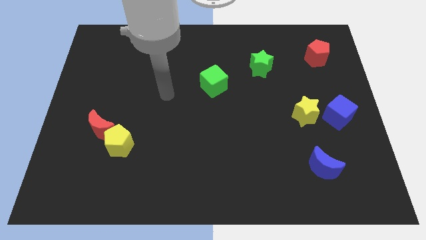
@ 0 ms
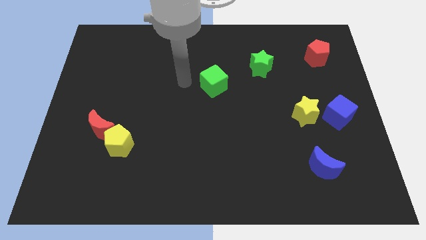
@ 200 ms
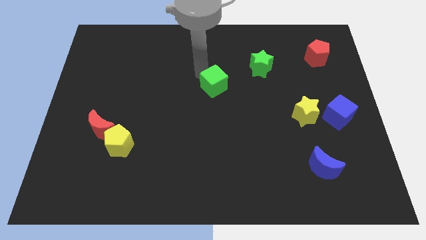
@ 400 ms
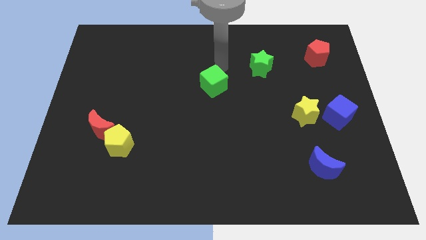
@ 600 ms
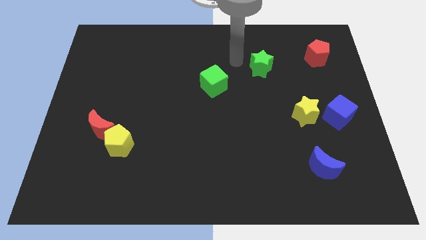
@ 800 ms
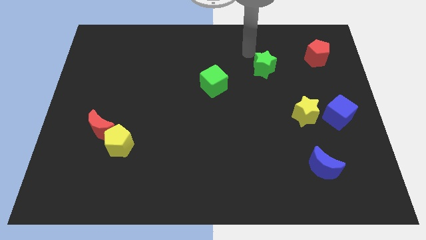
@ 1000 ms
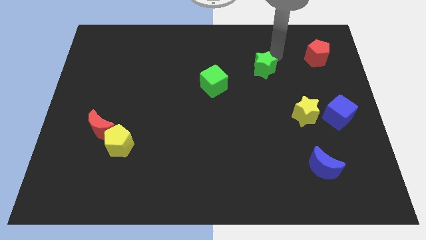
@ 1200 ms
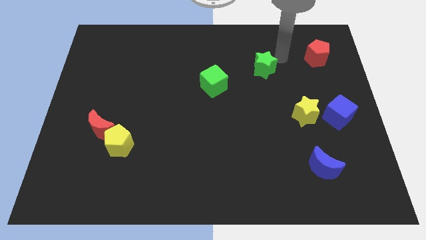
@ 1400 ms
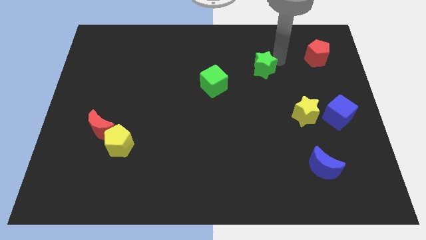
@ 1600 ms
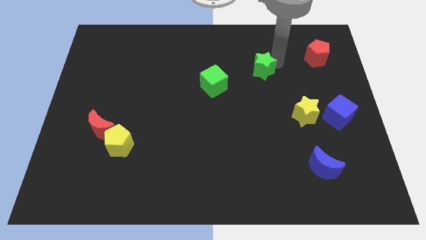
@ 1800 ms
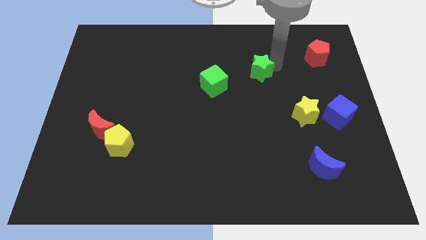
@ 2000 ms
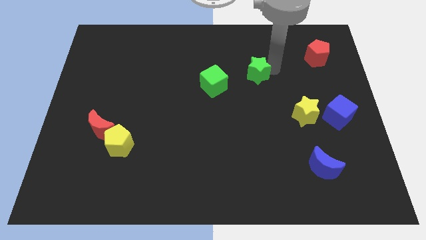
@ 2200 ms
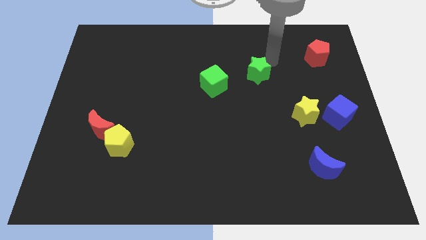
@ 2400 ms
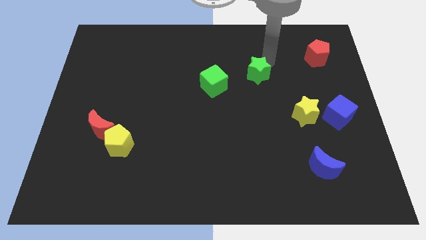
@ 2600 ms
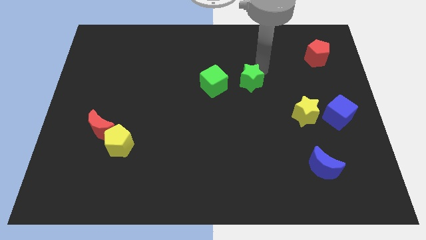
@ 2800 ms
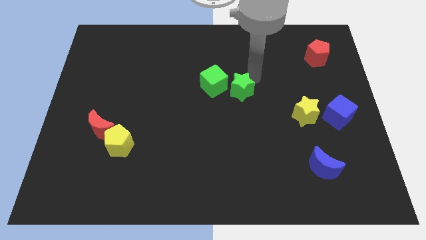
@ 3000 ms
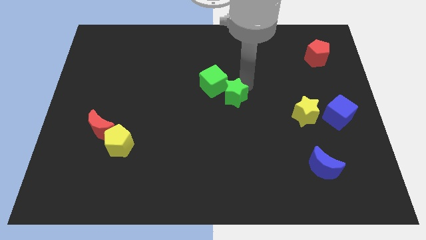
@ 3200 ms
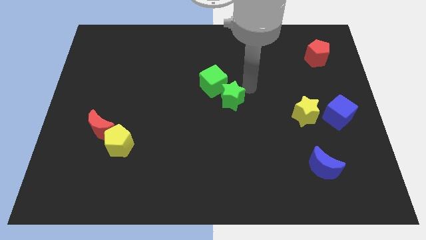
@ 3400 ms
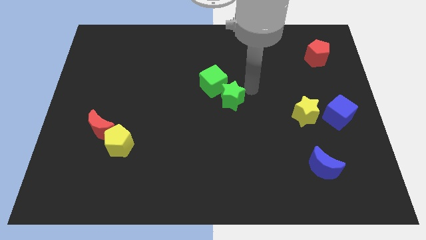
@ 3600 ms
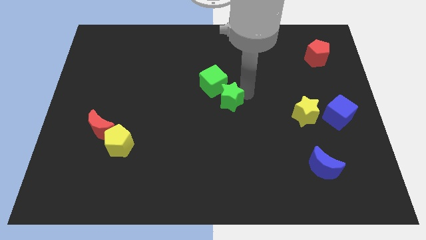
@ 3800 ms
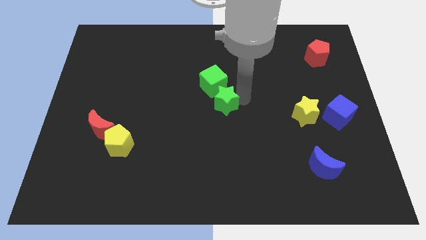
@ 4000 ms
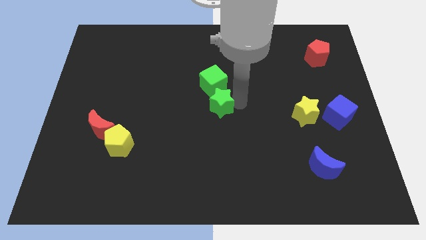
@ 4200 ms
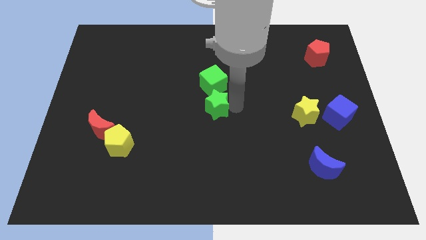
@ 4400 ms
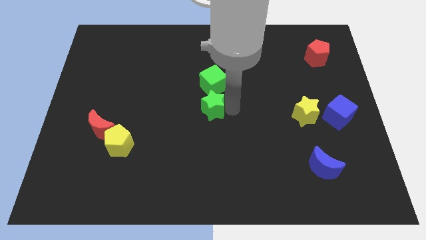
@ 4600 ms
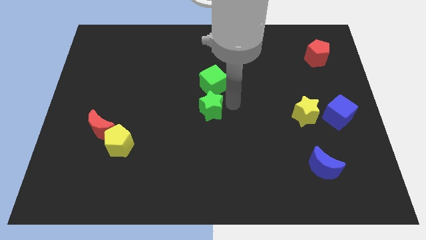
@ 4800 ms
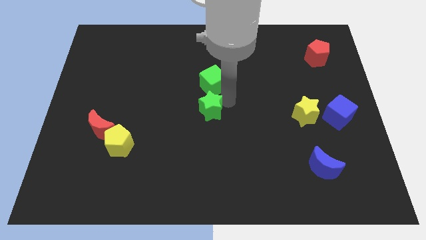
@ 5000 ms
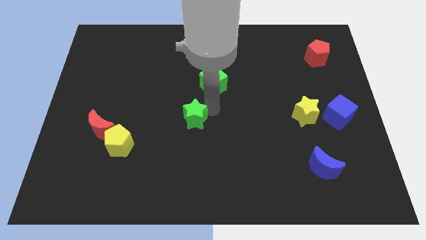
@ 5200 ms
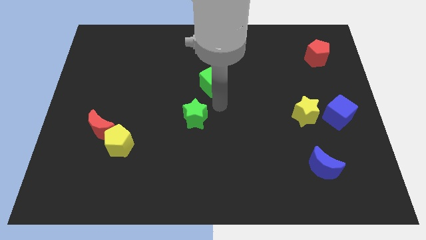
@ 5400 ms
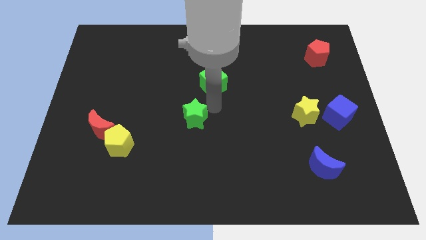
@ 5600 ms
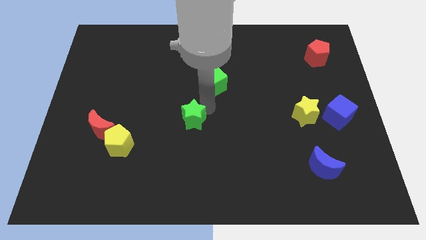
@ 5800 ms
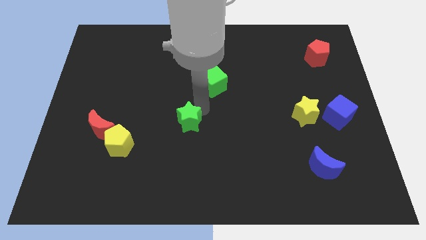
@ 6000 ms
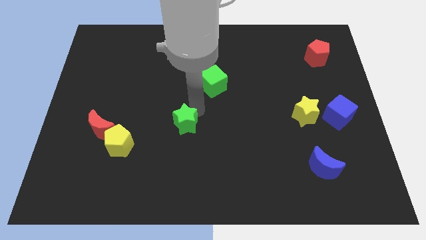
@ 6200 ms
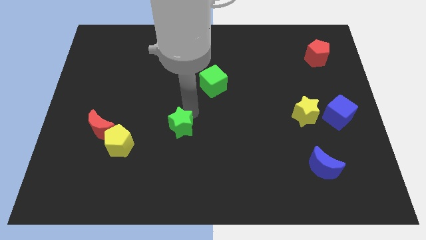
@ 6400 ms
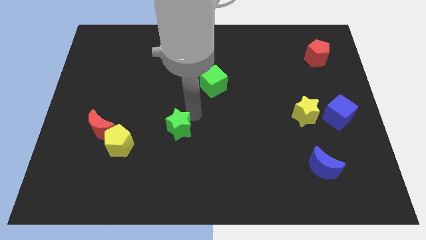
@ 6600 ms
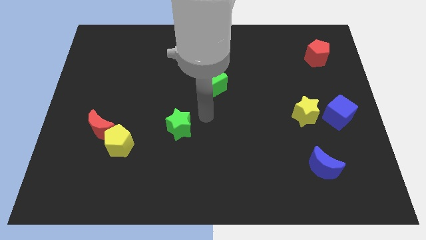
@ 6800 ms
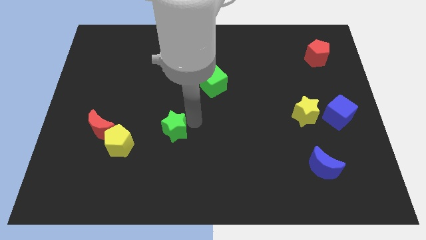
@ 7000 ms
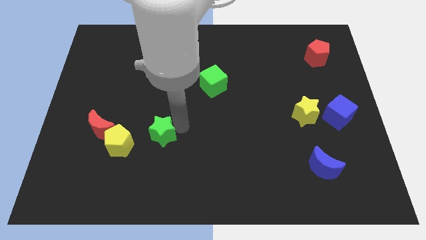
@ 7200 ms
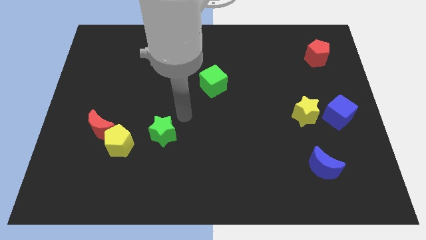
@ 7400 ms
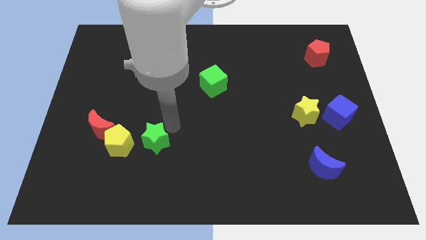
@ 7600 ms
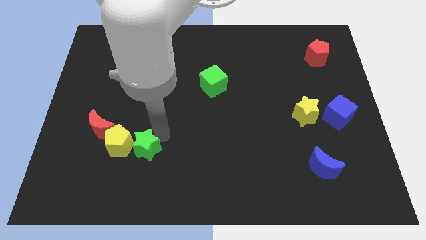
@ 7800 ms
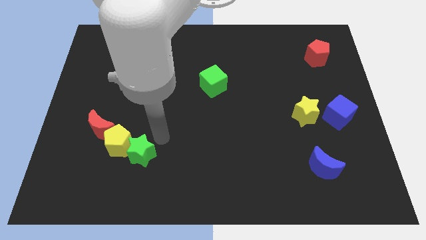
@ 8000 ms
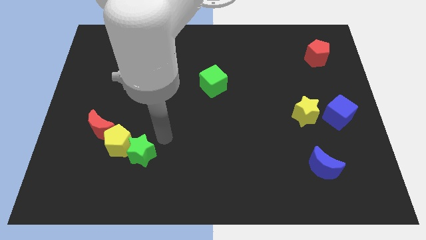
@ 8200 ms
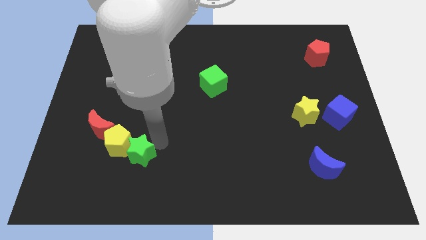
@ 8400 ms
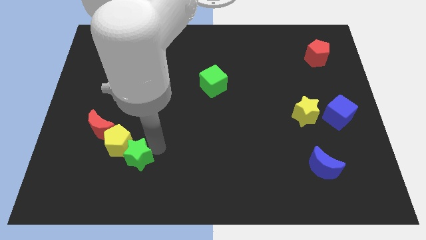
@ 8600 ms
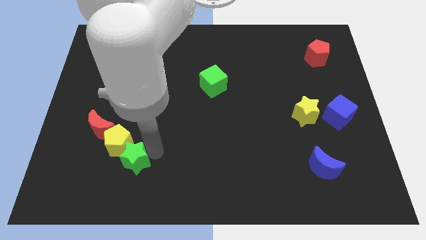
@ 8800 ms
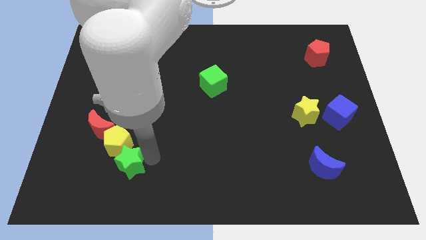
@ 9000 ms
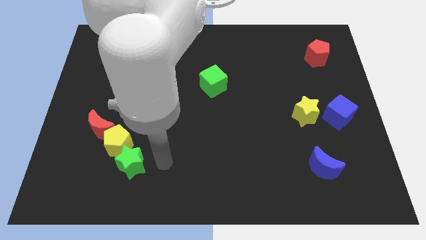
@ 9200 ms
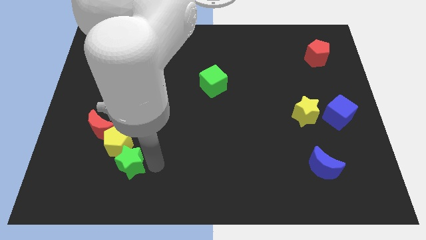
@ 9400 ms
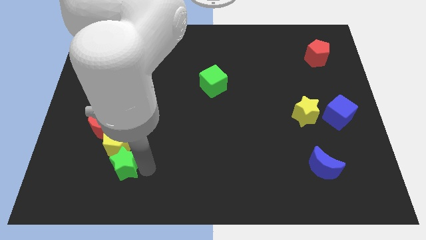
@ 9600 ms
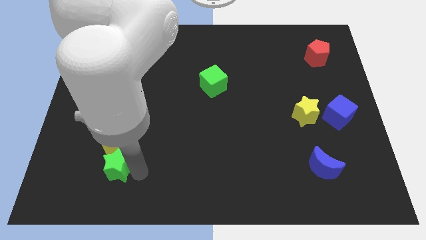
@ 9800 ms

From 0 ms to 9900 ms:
push the green star diagonally down and to the left of the yellow pentagon

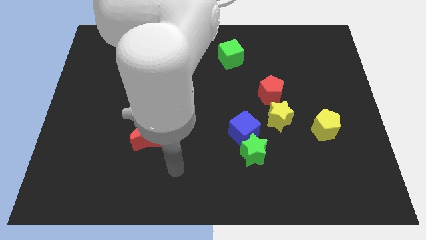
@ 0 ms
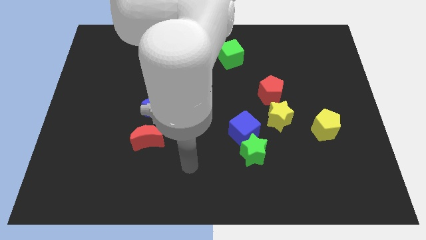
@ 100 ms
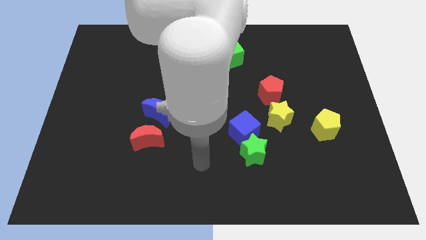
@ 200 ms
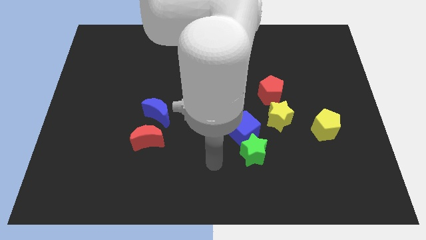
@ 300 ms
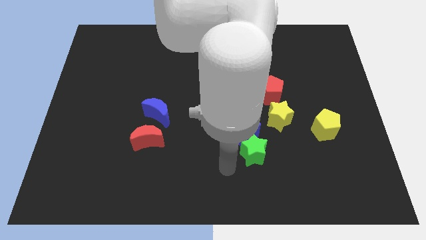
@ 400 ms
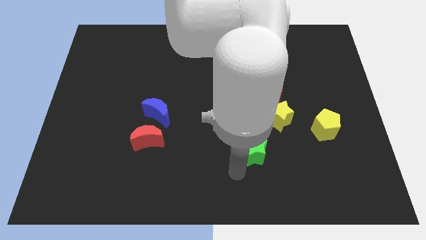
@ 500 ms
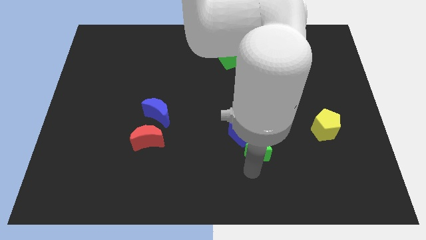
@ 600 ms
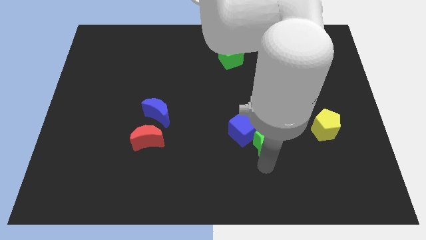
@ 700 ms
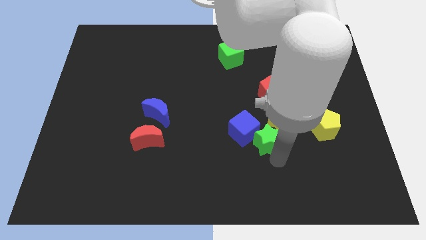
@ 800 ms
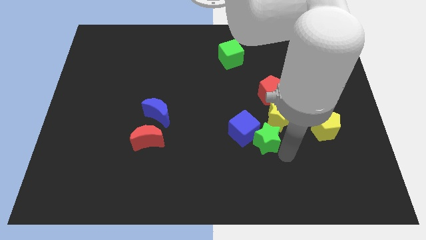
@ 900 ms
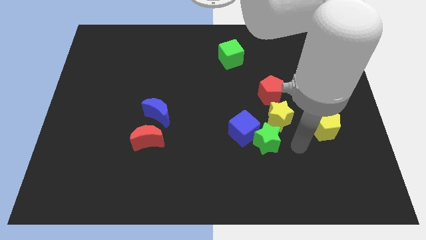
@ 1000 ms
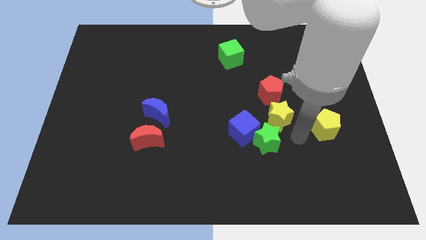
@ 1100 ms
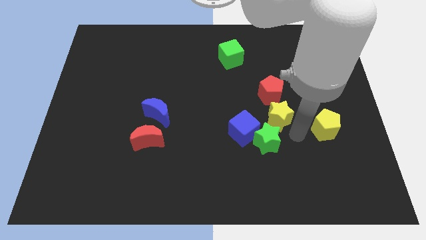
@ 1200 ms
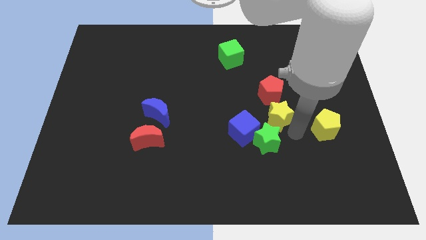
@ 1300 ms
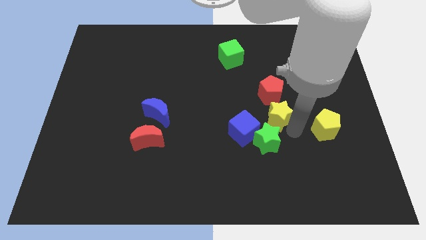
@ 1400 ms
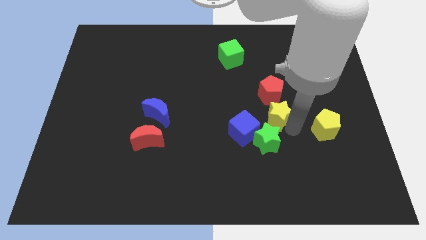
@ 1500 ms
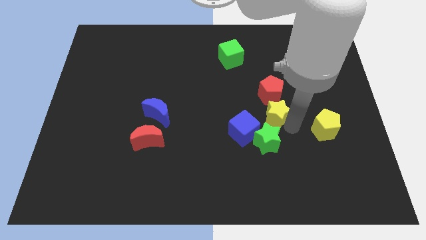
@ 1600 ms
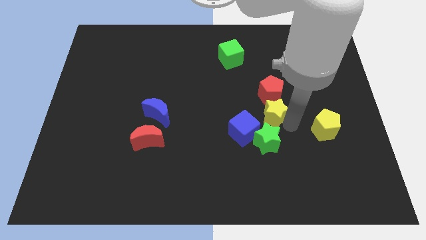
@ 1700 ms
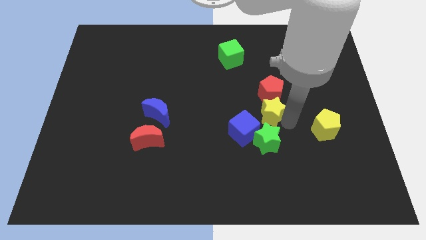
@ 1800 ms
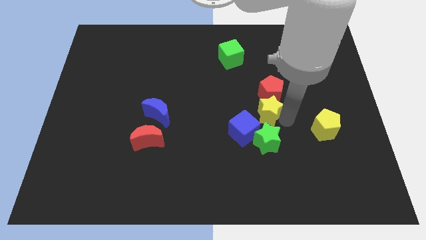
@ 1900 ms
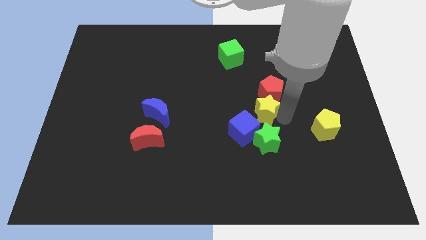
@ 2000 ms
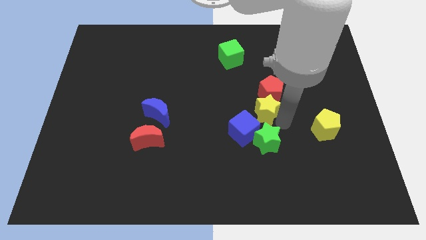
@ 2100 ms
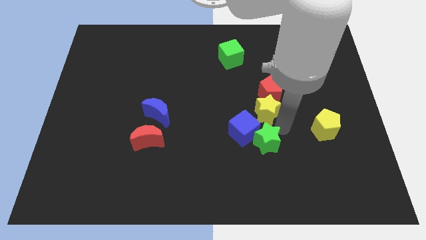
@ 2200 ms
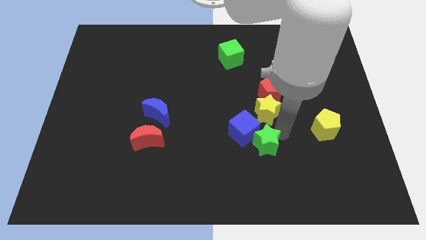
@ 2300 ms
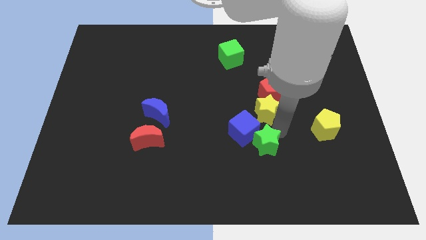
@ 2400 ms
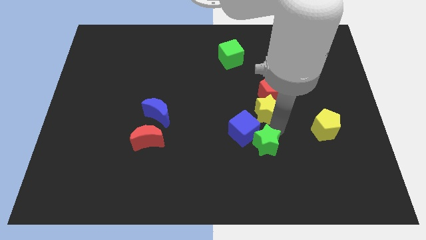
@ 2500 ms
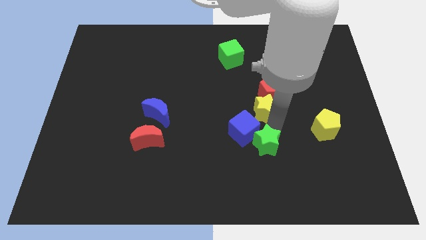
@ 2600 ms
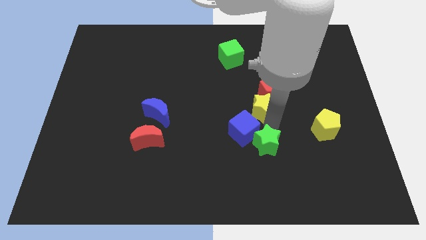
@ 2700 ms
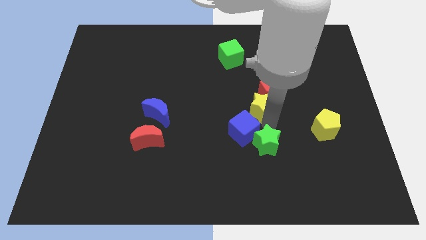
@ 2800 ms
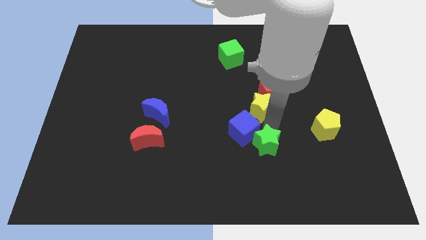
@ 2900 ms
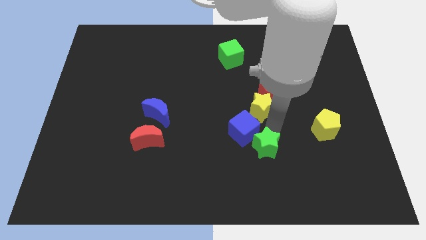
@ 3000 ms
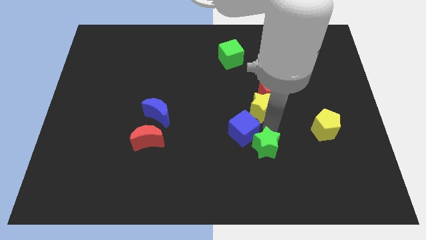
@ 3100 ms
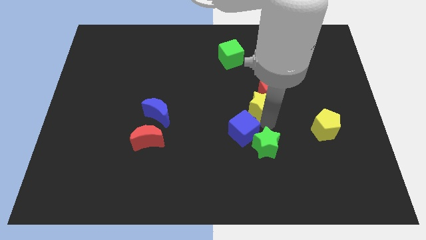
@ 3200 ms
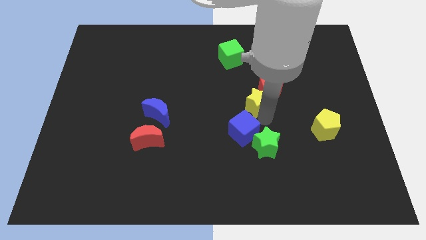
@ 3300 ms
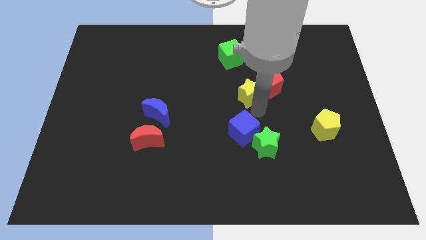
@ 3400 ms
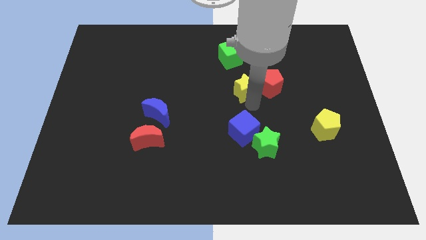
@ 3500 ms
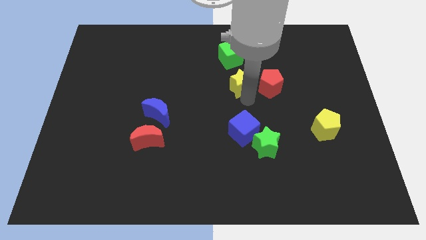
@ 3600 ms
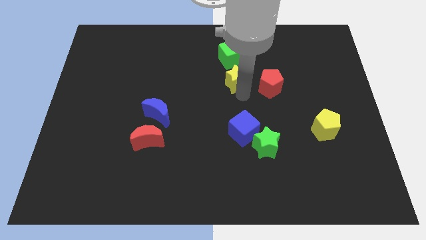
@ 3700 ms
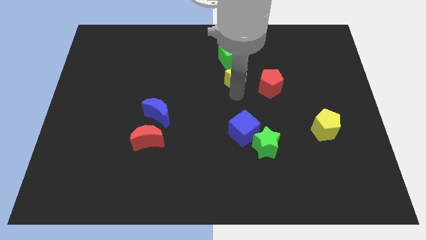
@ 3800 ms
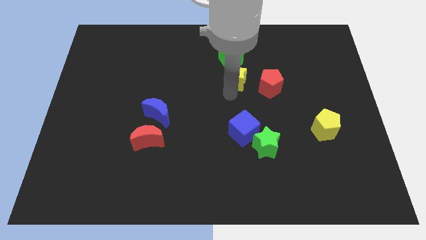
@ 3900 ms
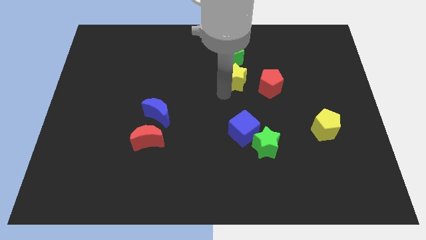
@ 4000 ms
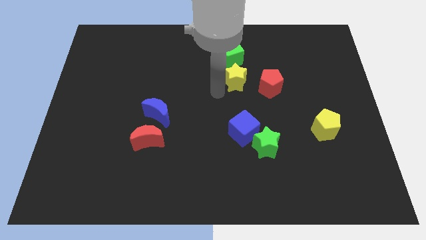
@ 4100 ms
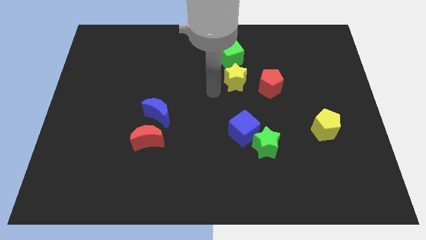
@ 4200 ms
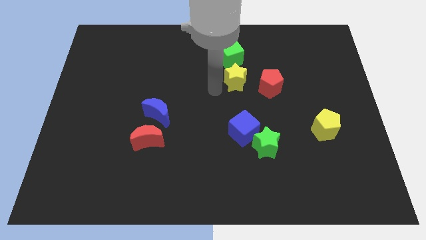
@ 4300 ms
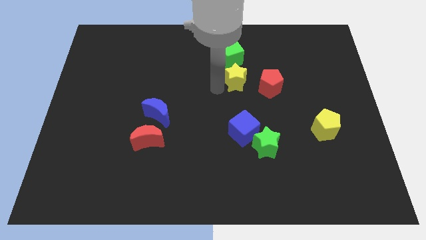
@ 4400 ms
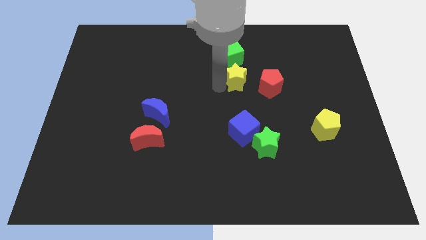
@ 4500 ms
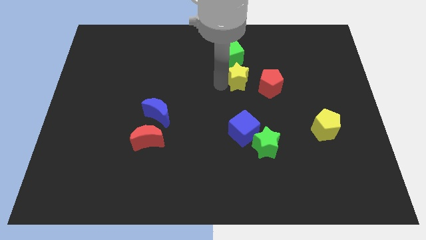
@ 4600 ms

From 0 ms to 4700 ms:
slide the yellow star to the bottom right of the green cube
